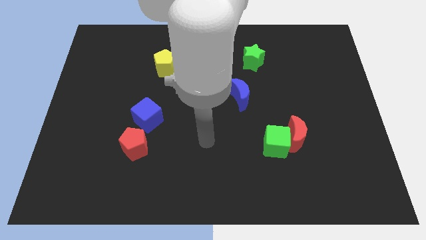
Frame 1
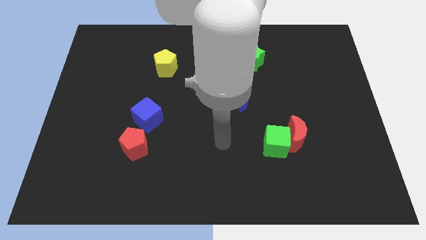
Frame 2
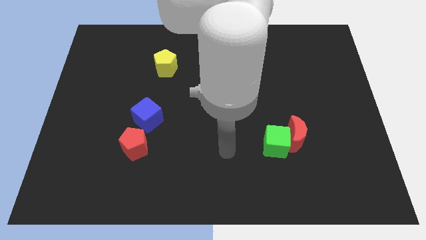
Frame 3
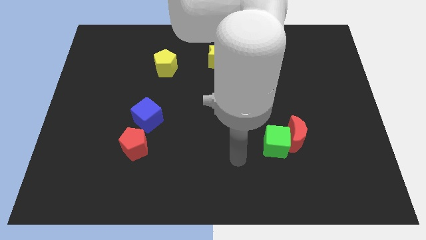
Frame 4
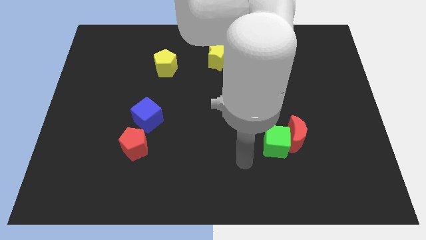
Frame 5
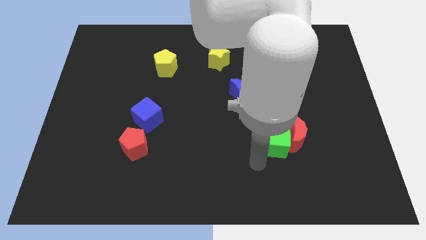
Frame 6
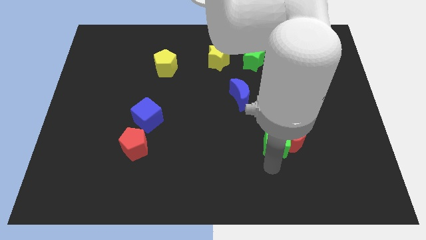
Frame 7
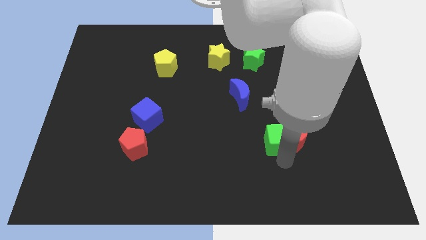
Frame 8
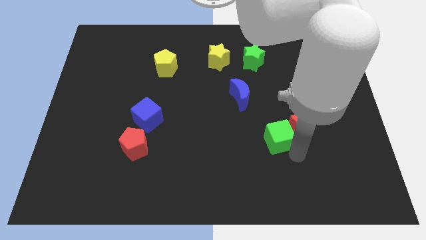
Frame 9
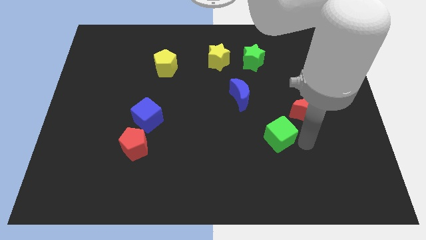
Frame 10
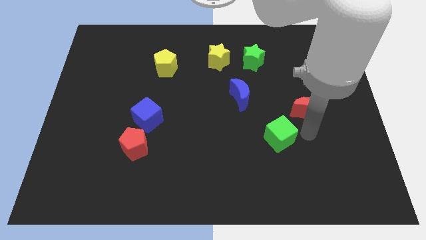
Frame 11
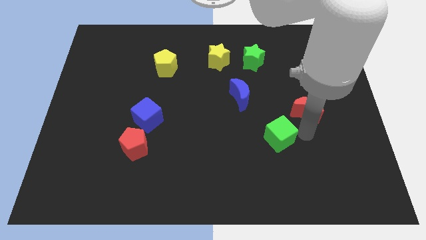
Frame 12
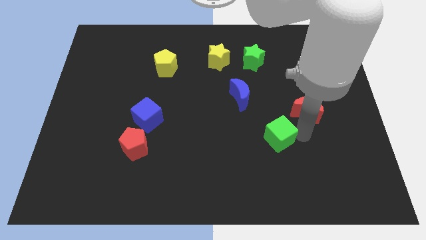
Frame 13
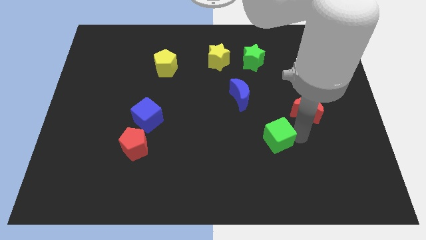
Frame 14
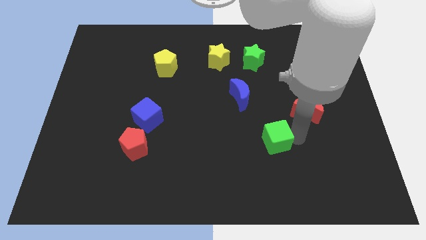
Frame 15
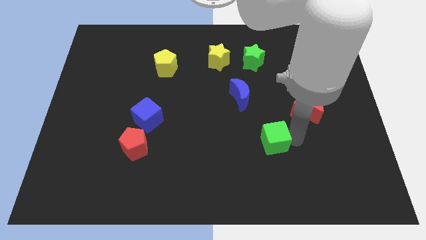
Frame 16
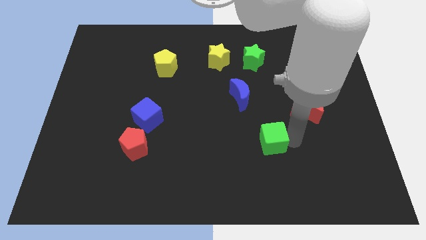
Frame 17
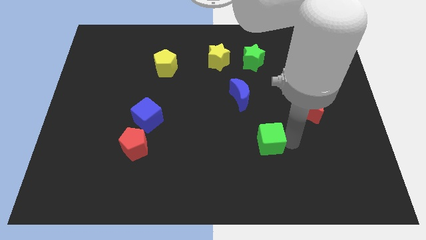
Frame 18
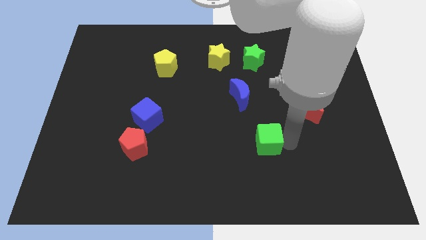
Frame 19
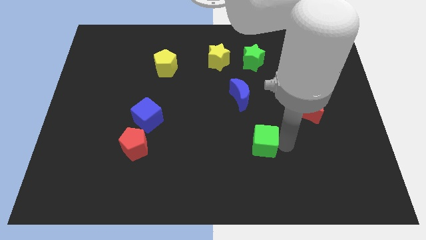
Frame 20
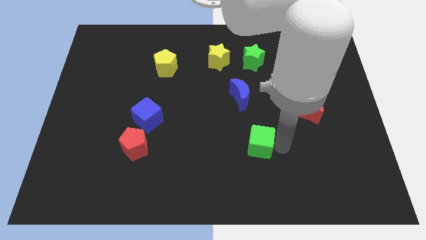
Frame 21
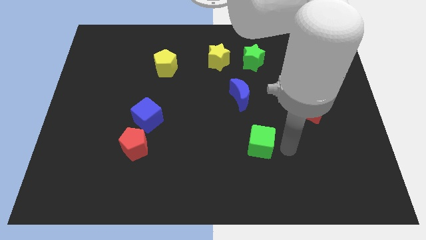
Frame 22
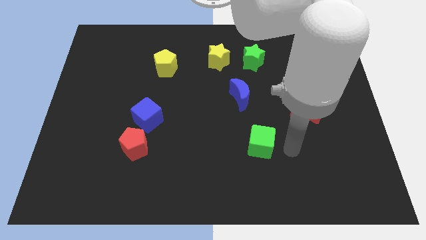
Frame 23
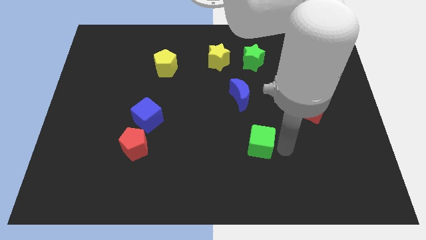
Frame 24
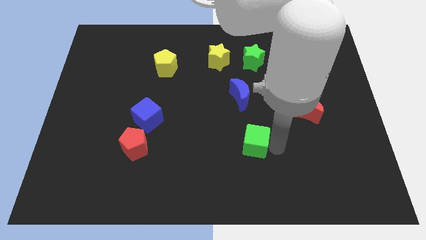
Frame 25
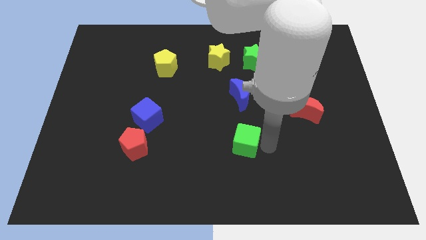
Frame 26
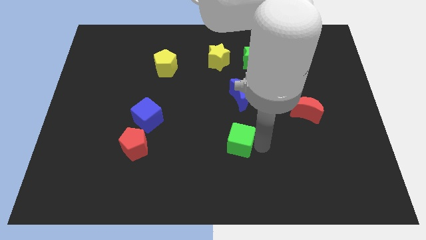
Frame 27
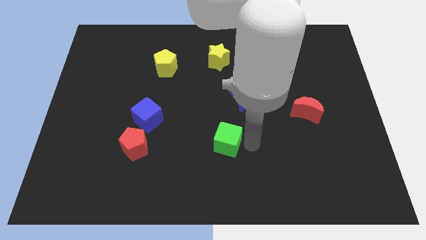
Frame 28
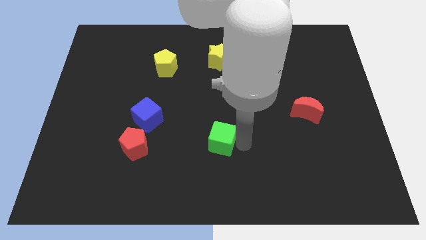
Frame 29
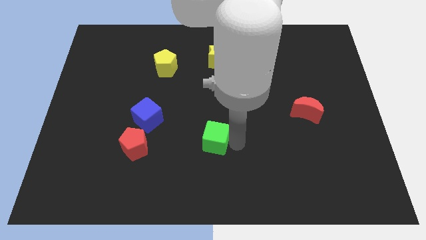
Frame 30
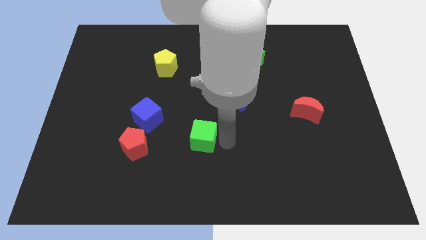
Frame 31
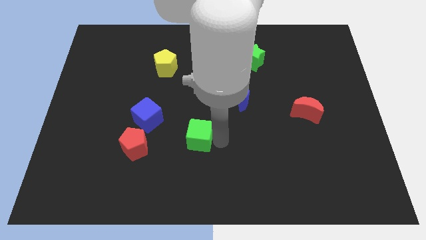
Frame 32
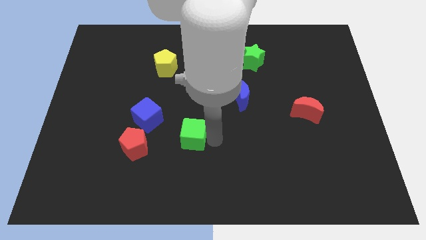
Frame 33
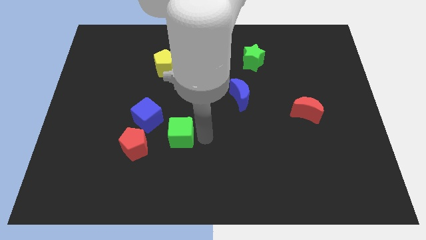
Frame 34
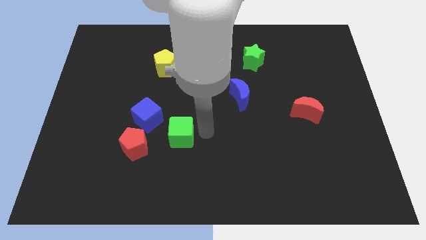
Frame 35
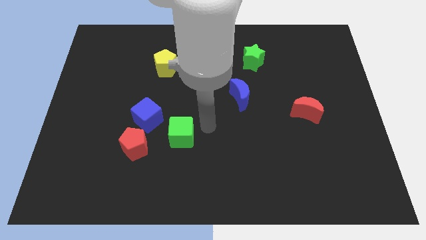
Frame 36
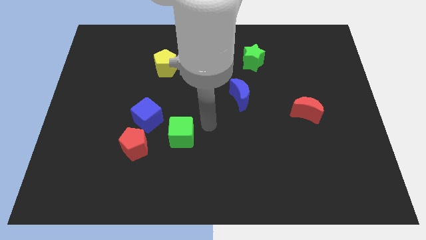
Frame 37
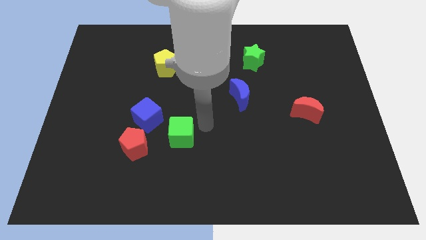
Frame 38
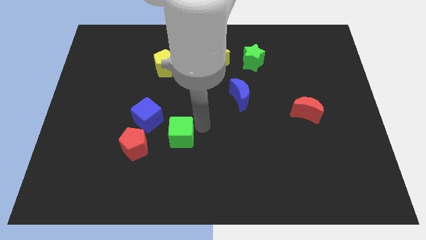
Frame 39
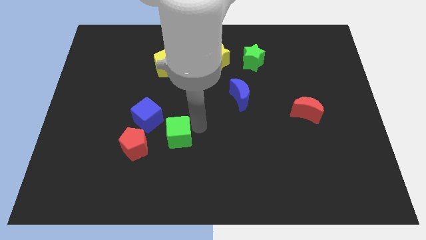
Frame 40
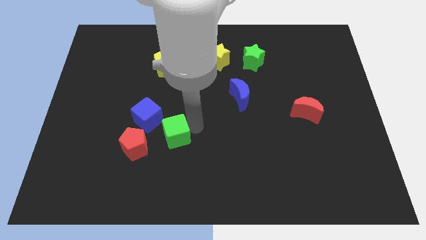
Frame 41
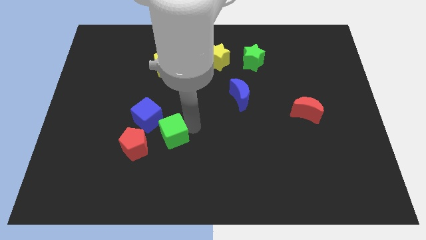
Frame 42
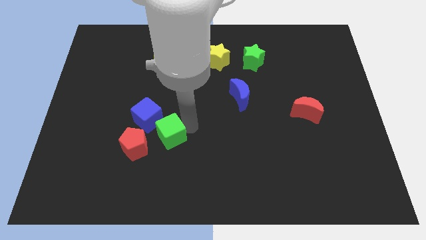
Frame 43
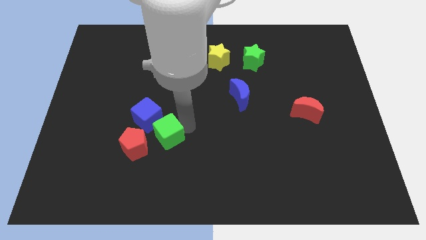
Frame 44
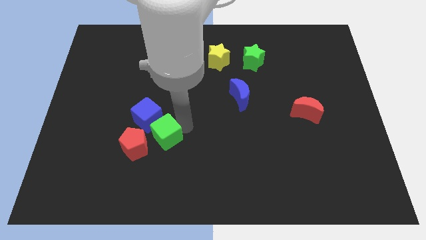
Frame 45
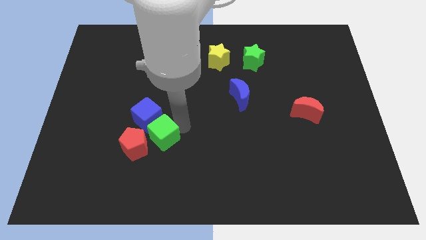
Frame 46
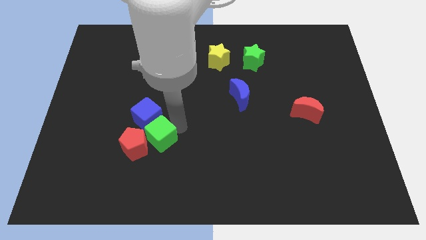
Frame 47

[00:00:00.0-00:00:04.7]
push the green cube close to the red pentagon

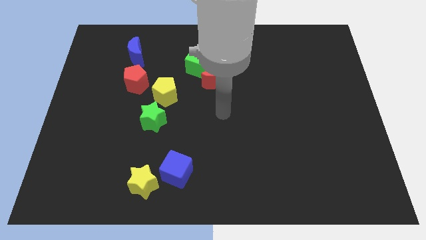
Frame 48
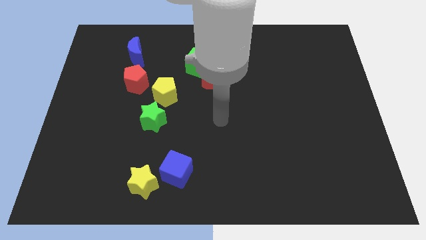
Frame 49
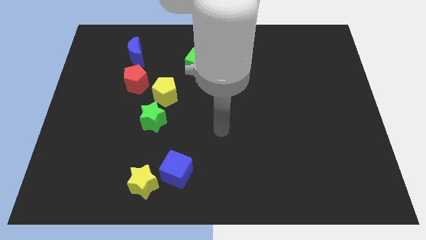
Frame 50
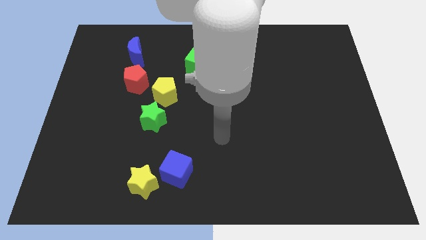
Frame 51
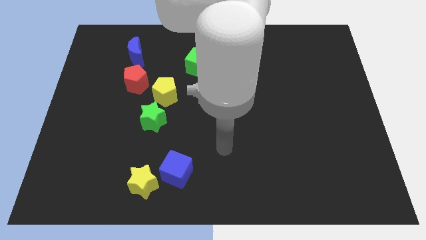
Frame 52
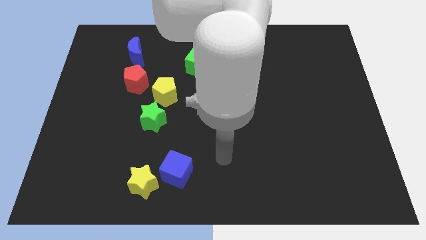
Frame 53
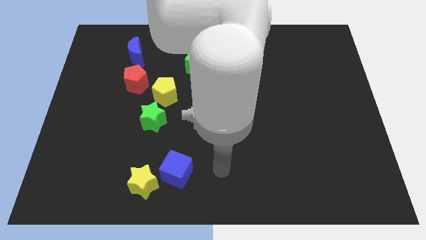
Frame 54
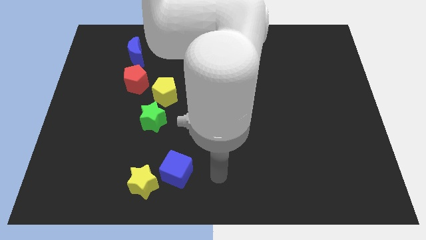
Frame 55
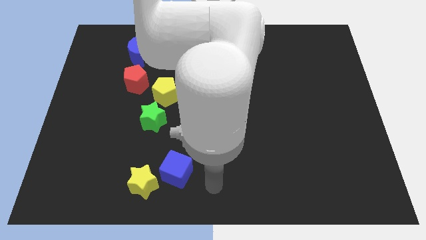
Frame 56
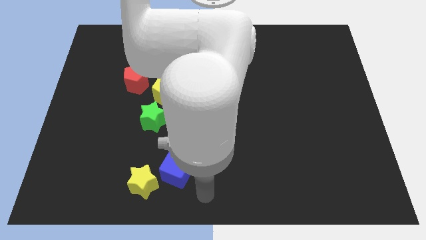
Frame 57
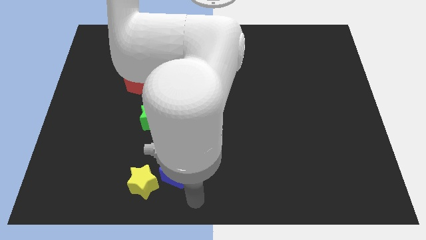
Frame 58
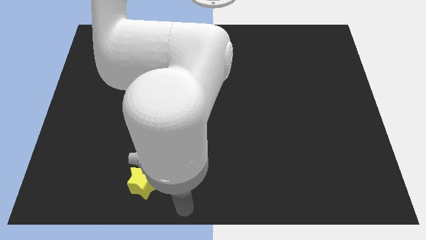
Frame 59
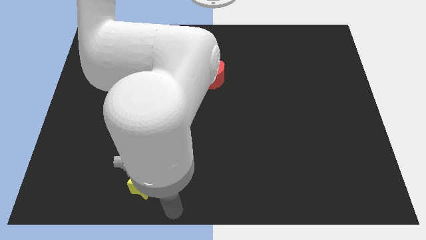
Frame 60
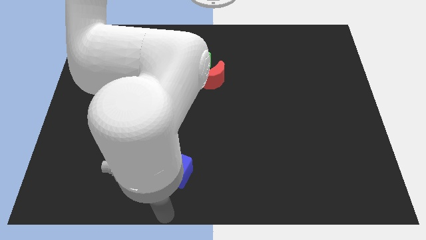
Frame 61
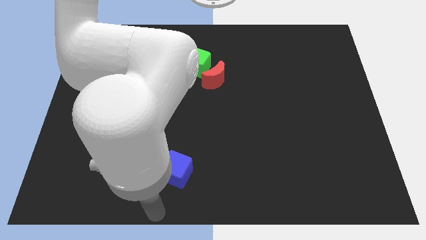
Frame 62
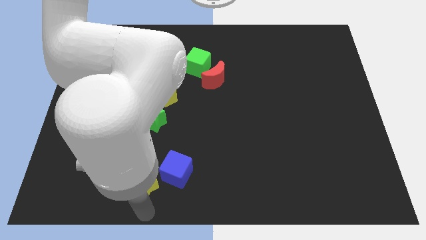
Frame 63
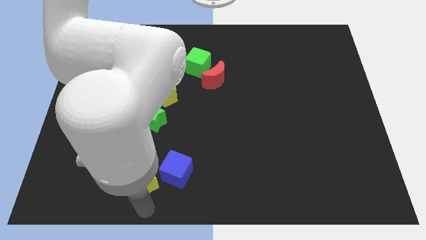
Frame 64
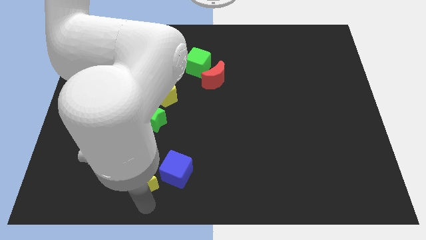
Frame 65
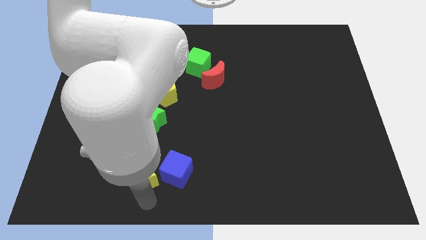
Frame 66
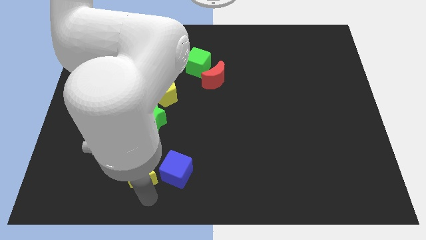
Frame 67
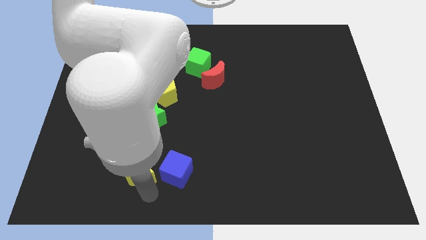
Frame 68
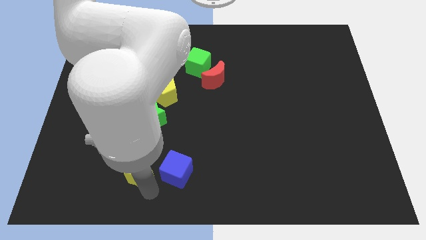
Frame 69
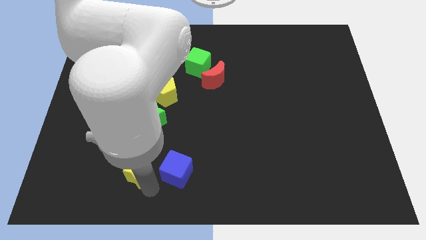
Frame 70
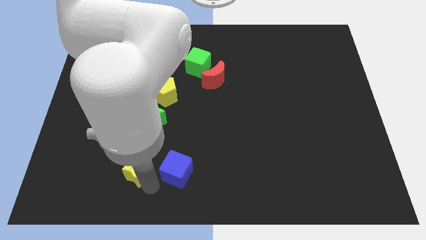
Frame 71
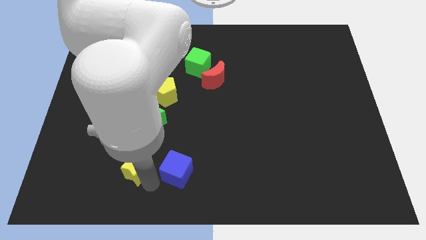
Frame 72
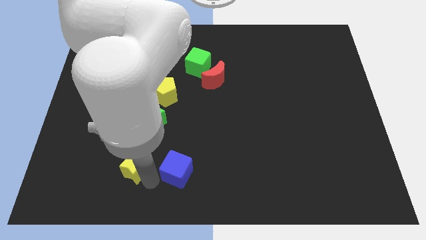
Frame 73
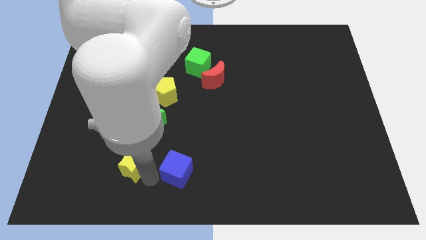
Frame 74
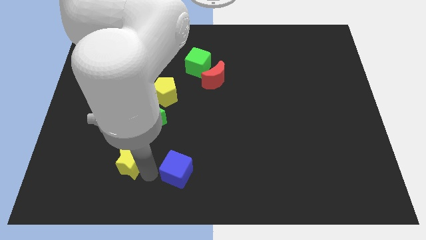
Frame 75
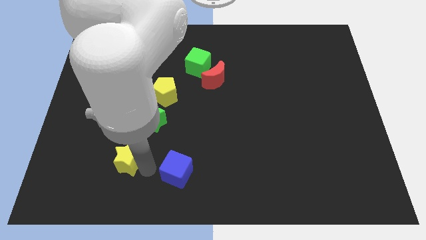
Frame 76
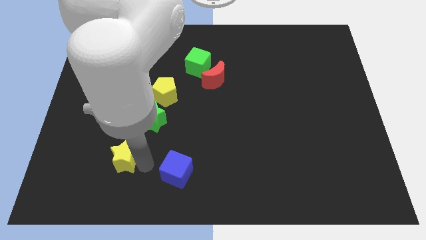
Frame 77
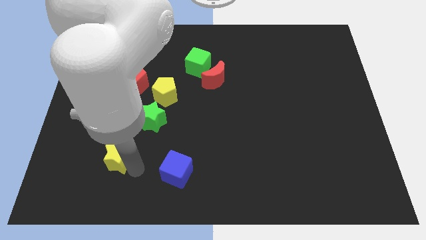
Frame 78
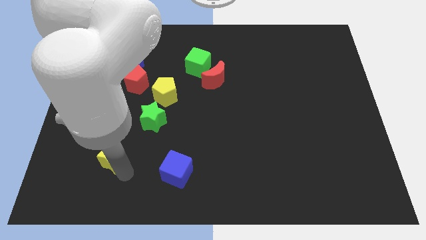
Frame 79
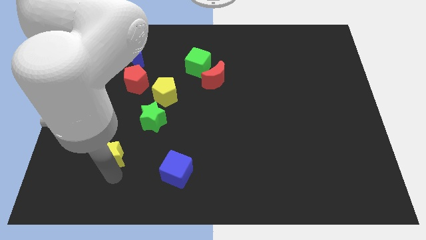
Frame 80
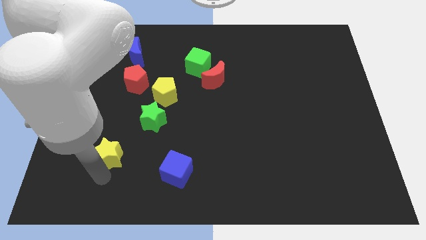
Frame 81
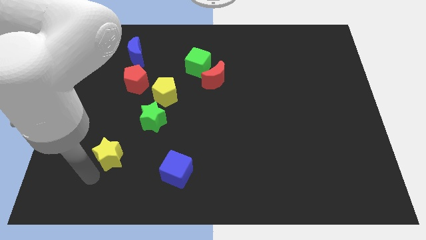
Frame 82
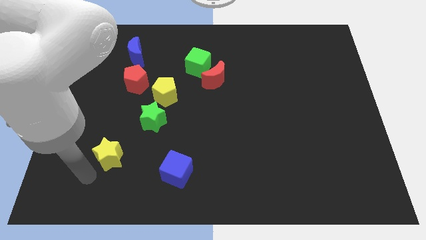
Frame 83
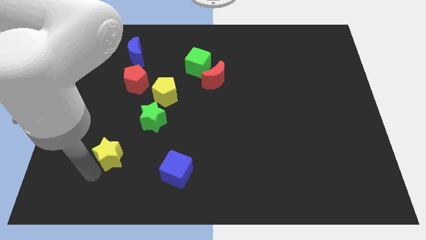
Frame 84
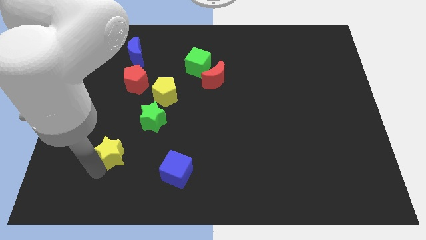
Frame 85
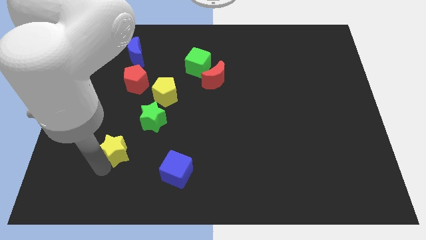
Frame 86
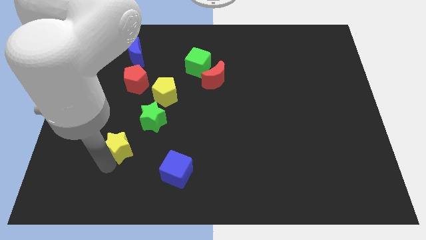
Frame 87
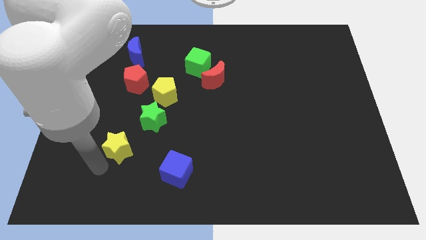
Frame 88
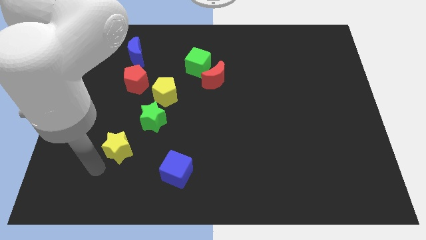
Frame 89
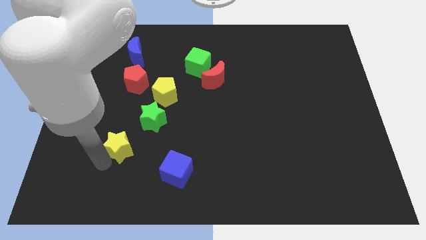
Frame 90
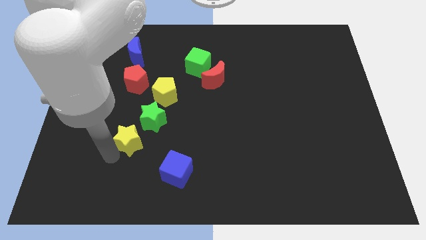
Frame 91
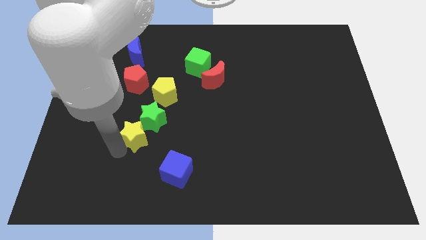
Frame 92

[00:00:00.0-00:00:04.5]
push the yellow star close to the green star
